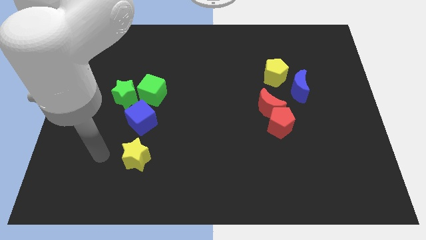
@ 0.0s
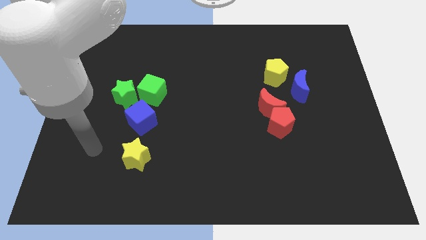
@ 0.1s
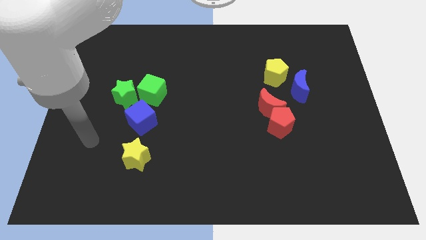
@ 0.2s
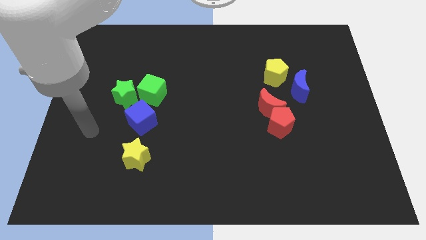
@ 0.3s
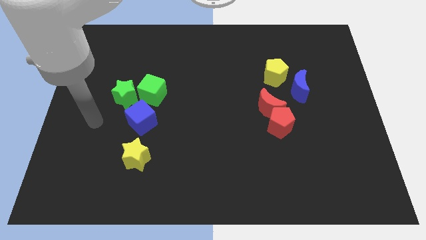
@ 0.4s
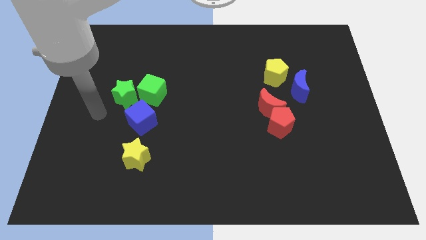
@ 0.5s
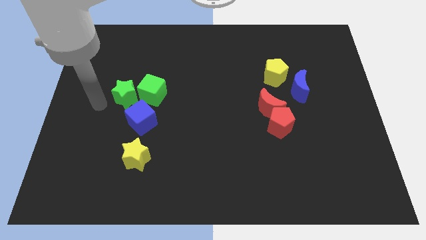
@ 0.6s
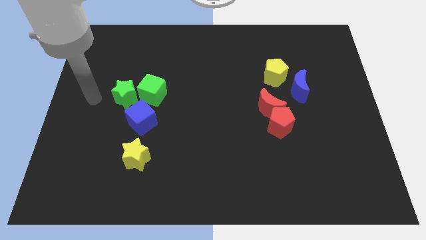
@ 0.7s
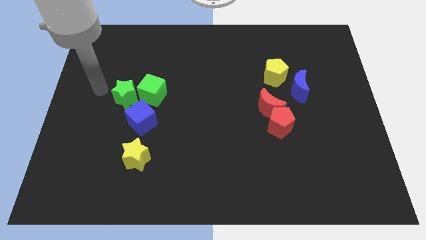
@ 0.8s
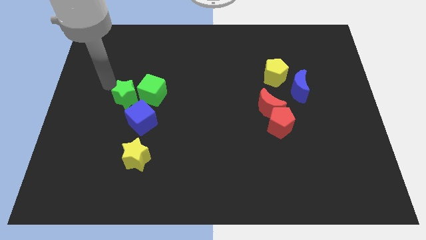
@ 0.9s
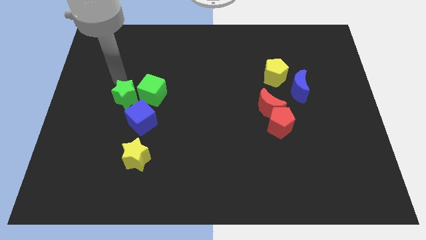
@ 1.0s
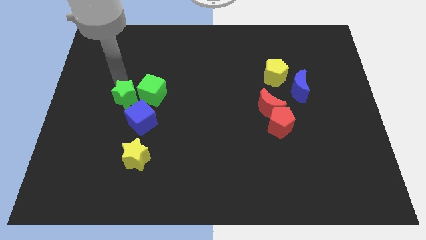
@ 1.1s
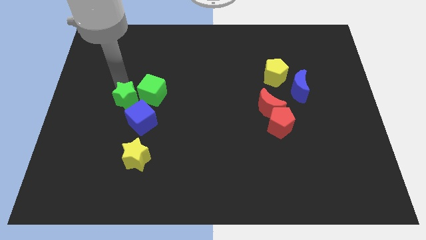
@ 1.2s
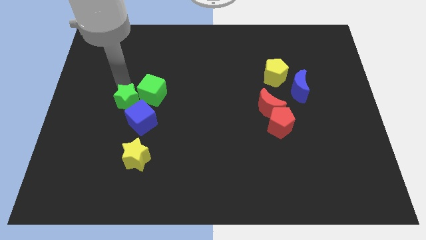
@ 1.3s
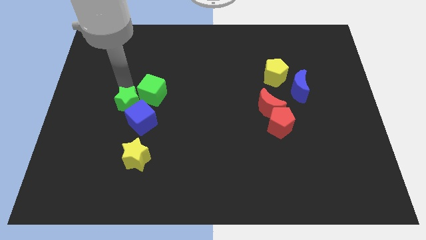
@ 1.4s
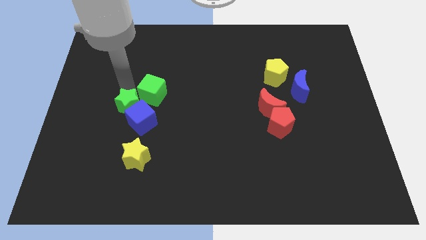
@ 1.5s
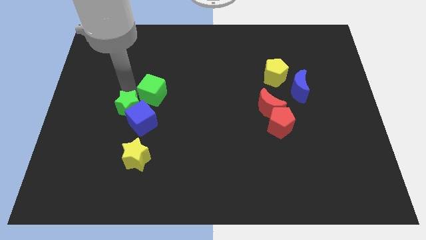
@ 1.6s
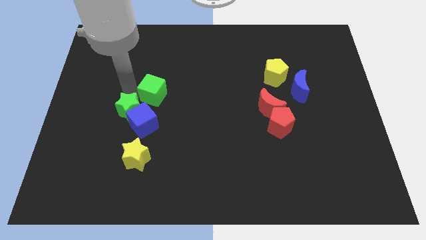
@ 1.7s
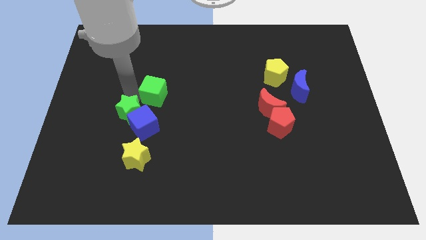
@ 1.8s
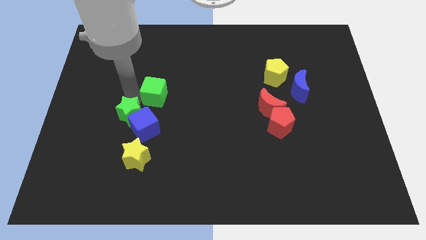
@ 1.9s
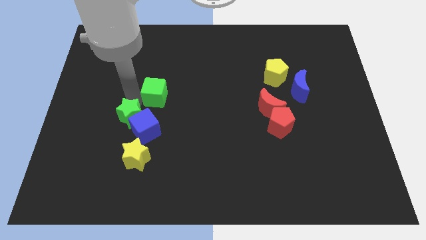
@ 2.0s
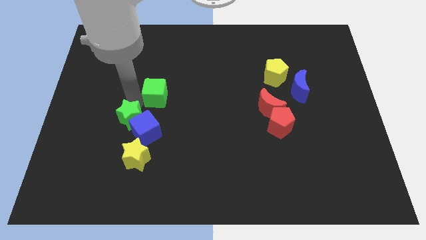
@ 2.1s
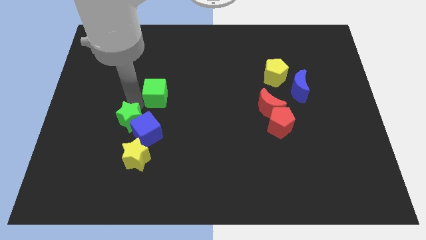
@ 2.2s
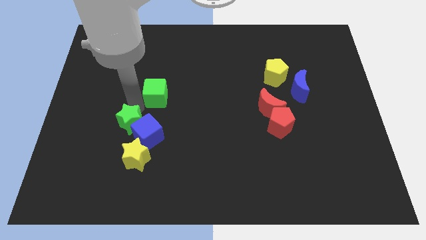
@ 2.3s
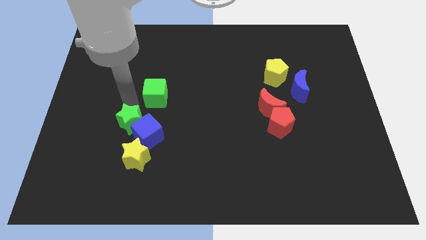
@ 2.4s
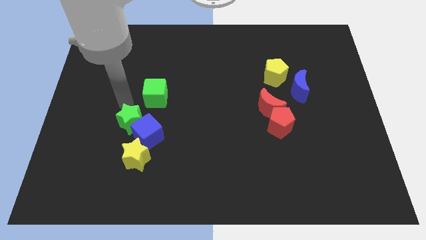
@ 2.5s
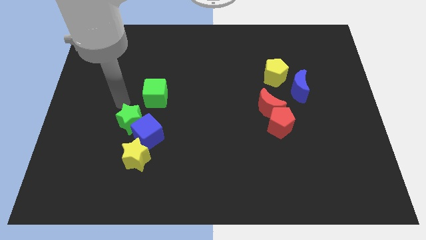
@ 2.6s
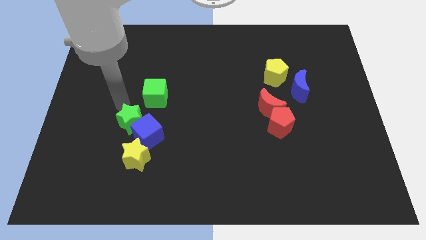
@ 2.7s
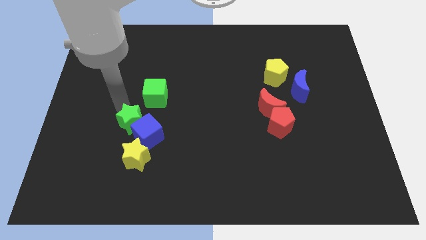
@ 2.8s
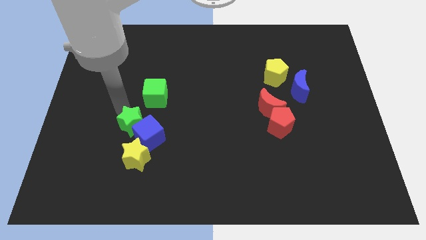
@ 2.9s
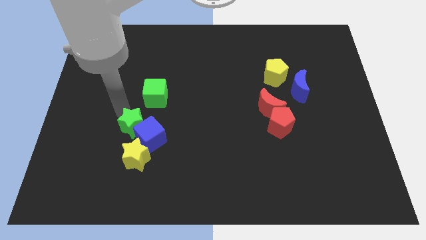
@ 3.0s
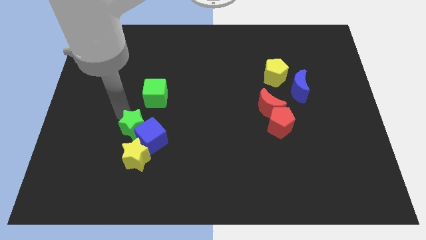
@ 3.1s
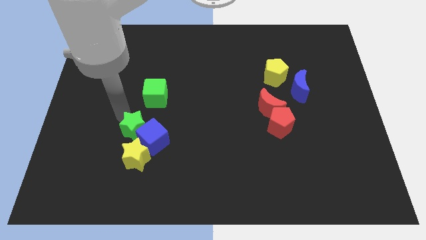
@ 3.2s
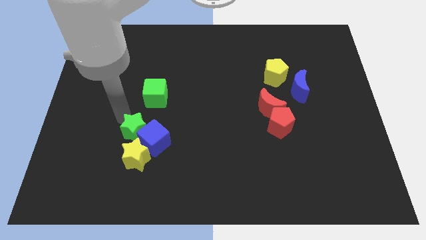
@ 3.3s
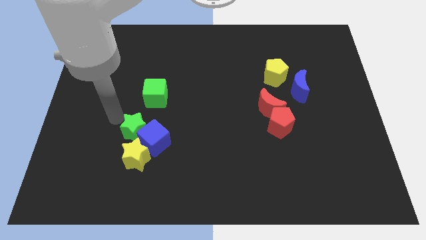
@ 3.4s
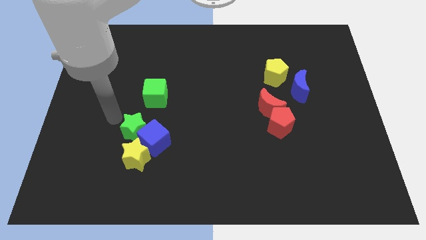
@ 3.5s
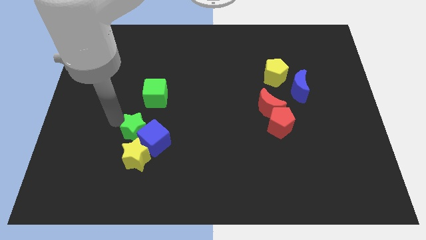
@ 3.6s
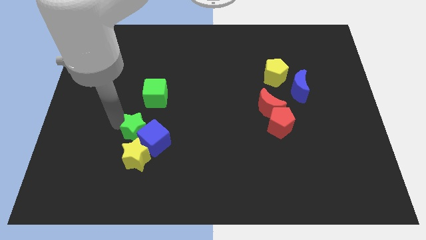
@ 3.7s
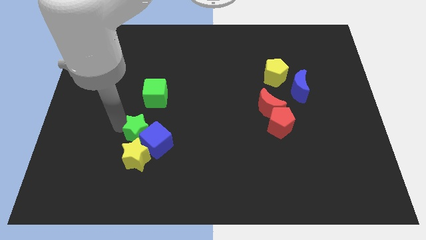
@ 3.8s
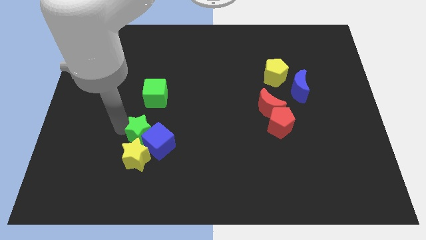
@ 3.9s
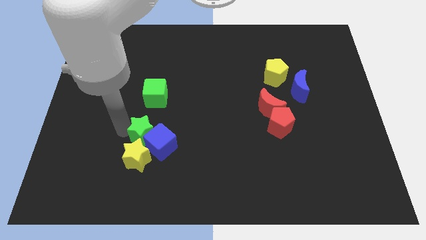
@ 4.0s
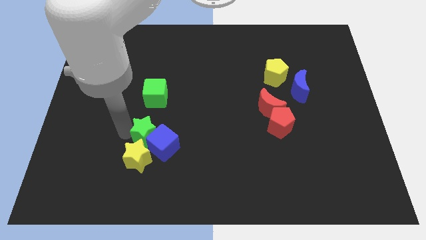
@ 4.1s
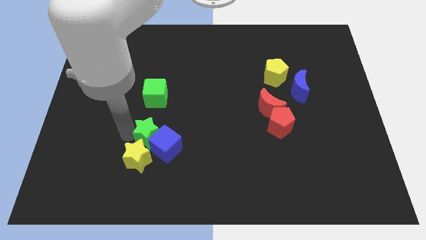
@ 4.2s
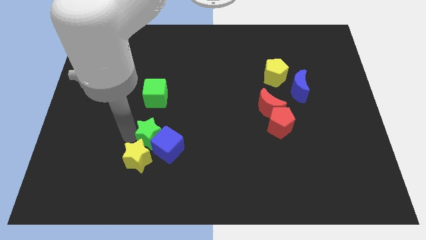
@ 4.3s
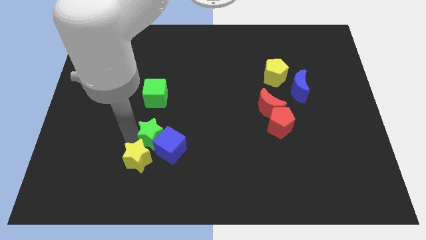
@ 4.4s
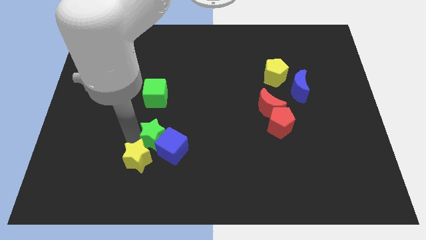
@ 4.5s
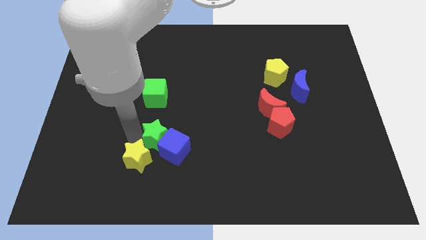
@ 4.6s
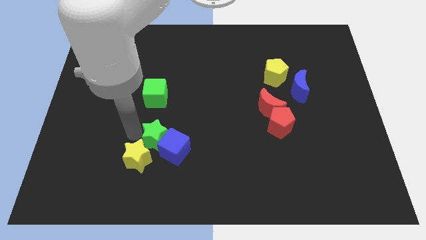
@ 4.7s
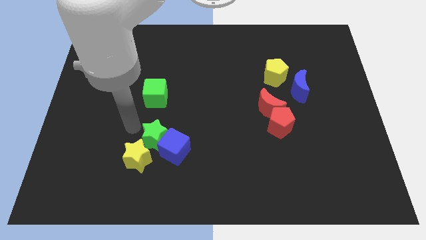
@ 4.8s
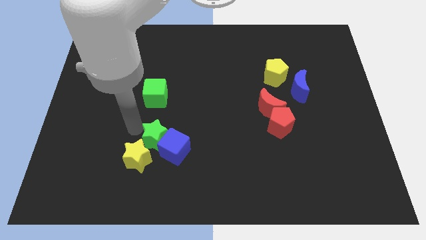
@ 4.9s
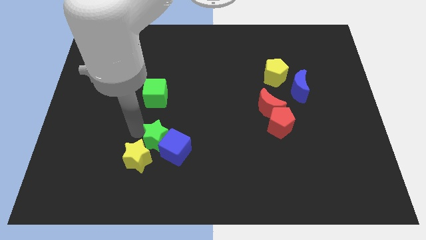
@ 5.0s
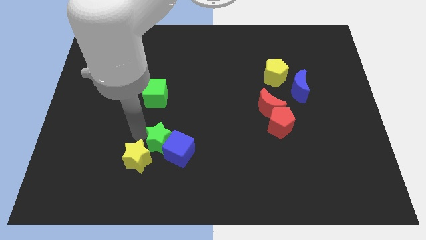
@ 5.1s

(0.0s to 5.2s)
push the green star to the right of the yellow star

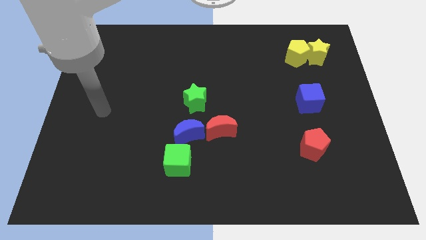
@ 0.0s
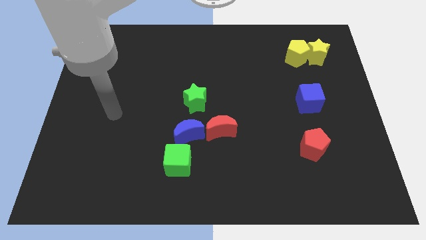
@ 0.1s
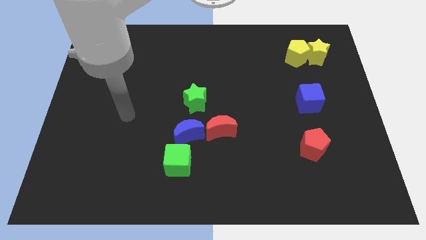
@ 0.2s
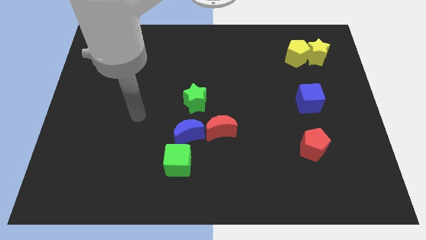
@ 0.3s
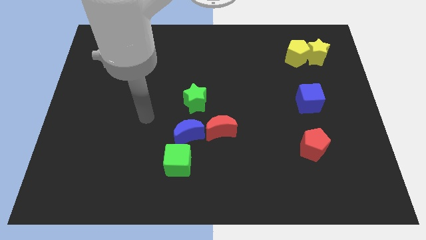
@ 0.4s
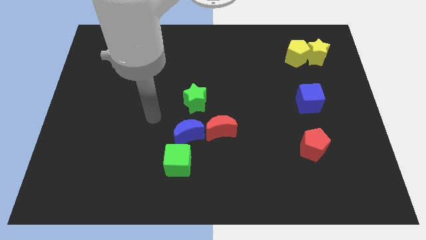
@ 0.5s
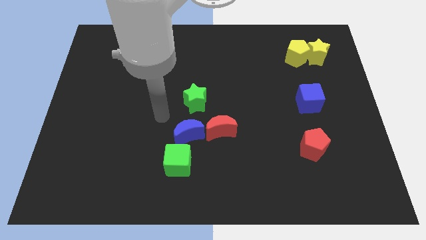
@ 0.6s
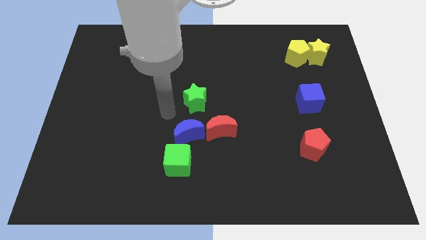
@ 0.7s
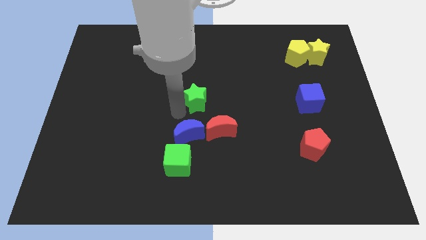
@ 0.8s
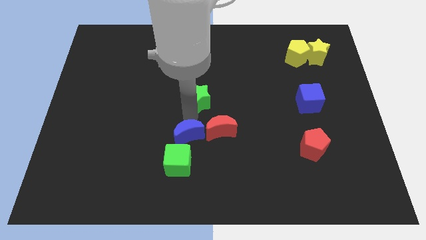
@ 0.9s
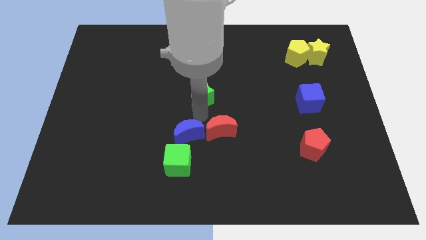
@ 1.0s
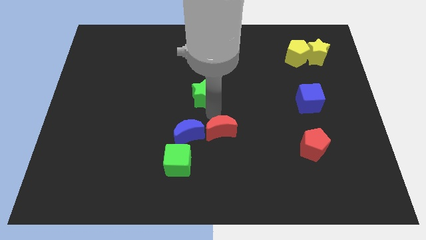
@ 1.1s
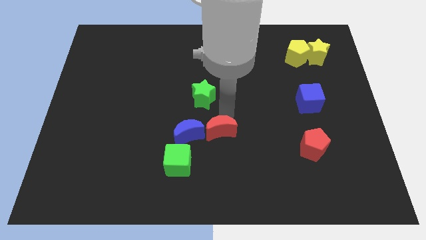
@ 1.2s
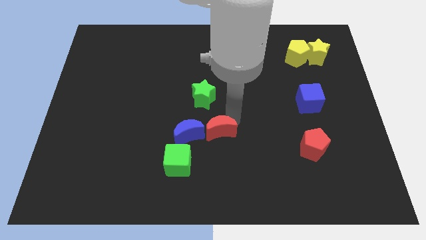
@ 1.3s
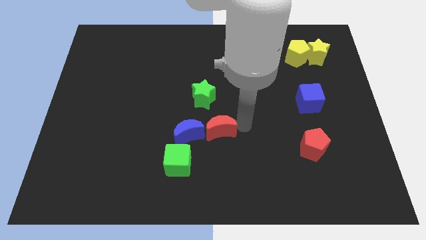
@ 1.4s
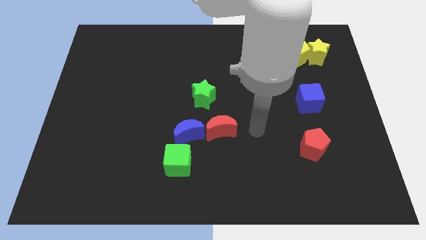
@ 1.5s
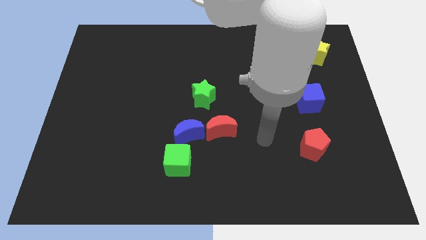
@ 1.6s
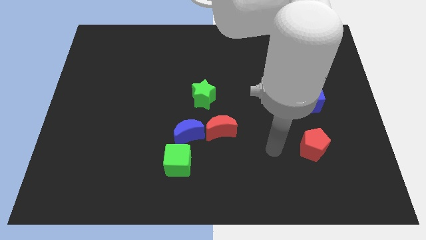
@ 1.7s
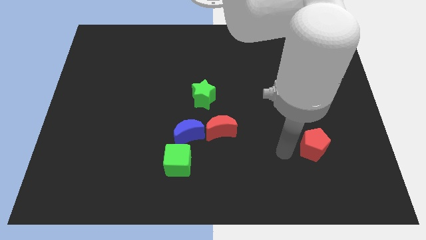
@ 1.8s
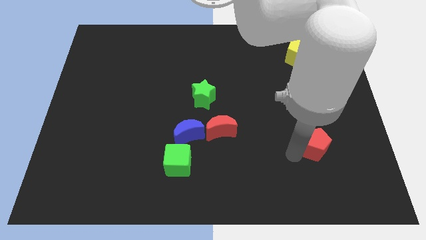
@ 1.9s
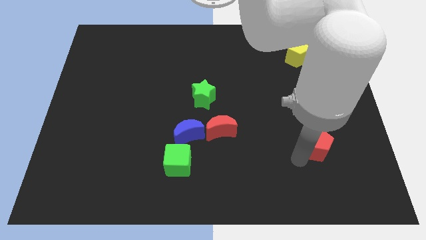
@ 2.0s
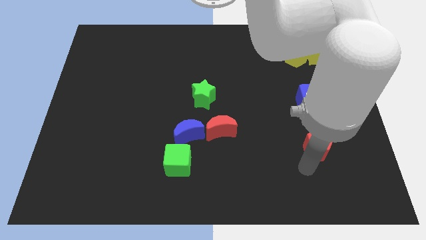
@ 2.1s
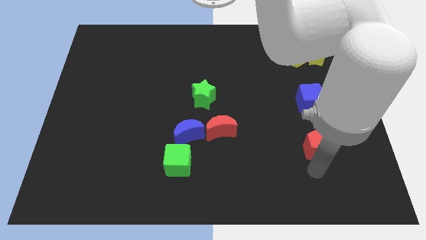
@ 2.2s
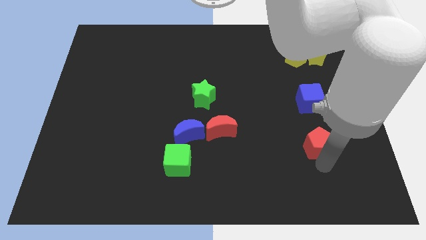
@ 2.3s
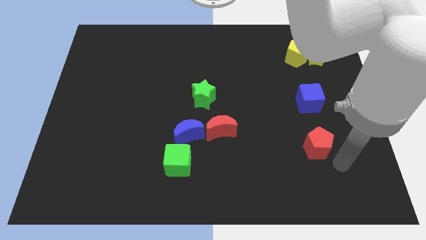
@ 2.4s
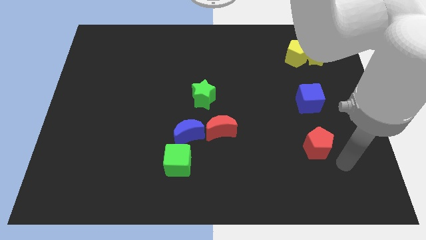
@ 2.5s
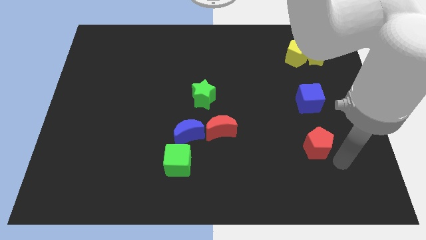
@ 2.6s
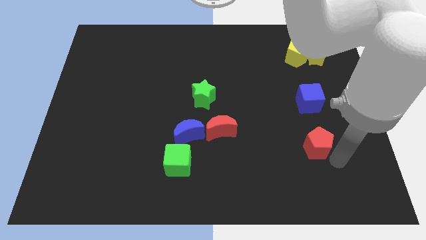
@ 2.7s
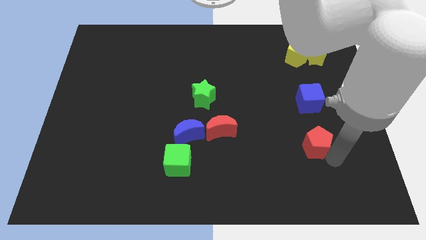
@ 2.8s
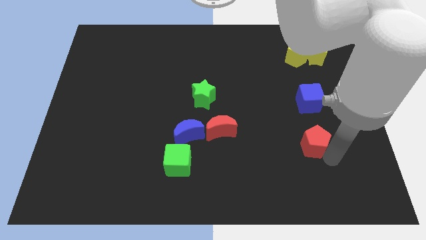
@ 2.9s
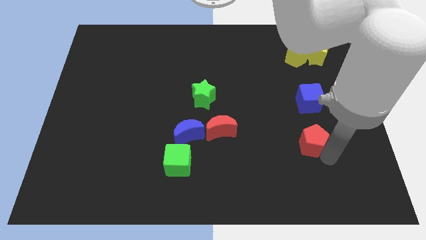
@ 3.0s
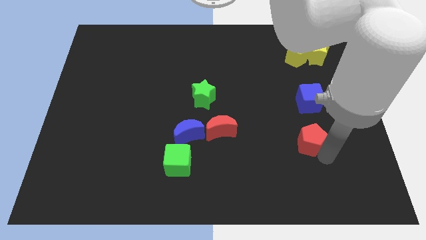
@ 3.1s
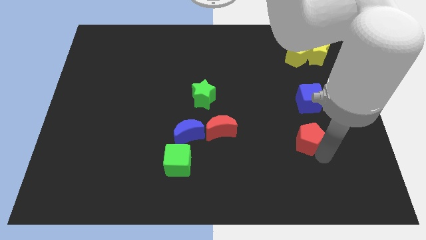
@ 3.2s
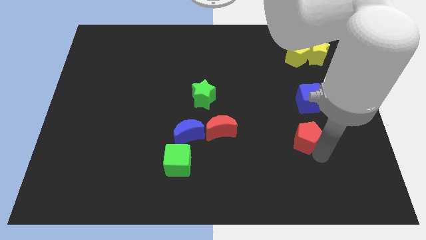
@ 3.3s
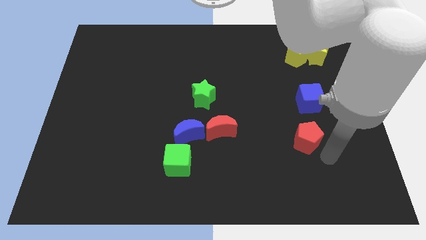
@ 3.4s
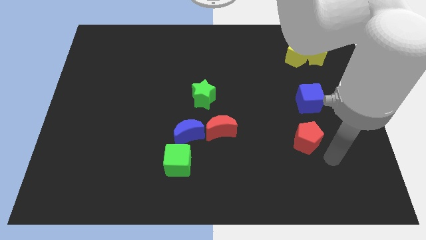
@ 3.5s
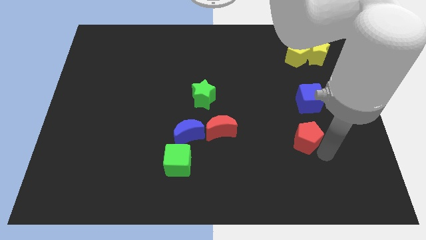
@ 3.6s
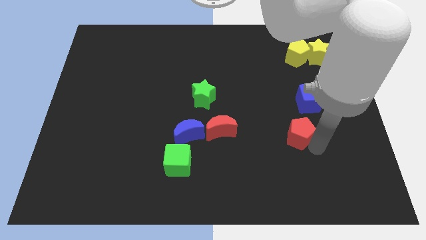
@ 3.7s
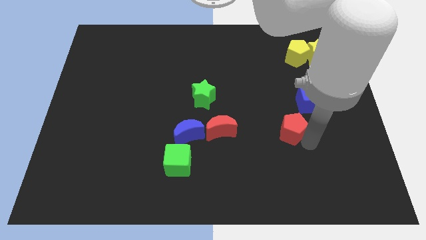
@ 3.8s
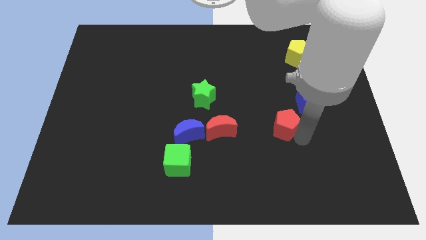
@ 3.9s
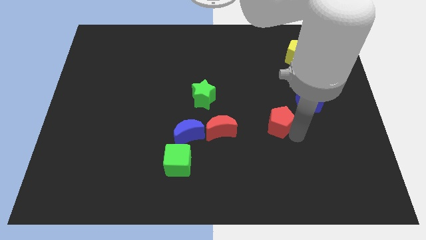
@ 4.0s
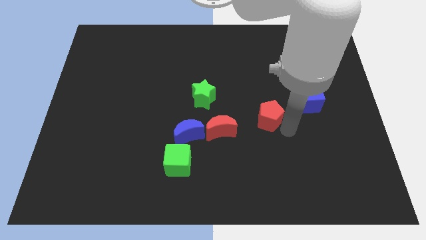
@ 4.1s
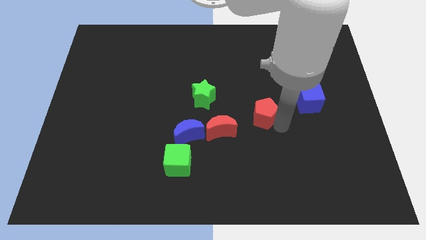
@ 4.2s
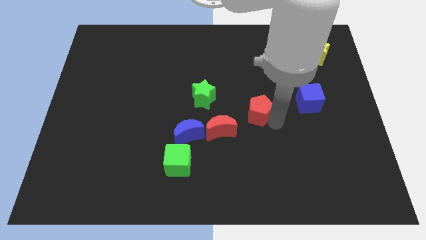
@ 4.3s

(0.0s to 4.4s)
move the red pentagon just right of the green star
